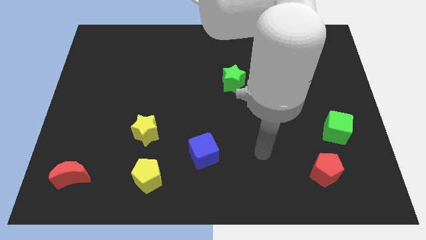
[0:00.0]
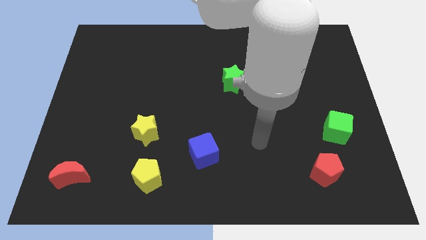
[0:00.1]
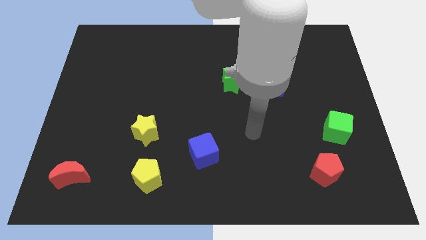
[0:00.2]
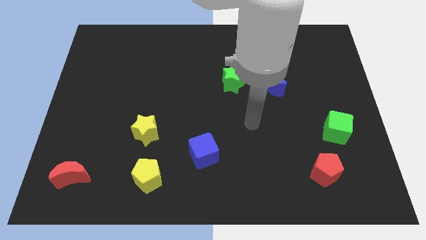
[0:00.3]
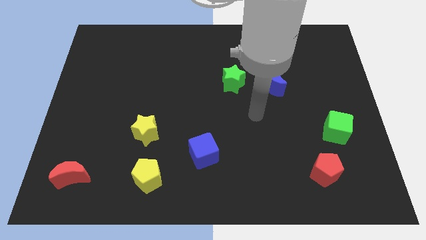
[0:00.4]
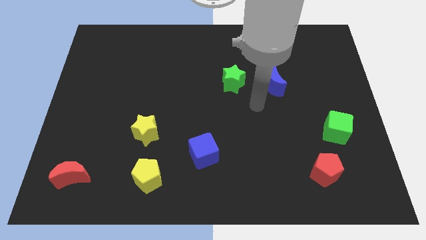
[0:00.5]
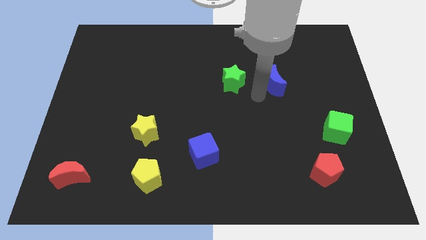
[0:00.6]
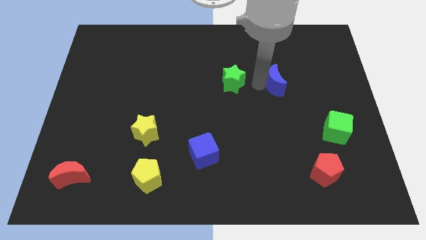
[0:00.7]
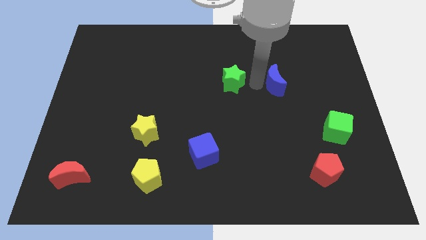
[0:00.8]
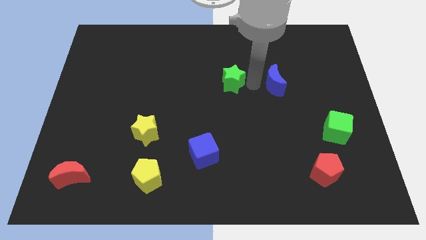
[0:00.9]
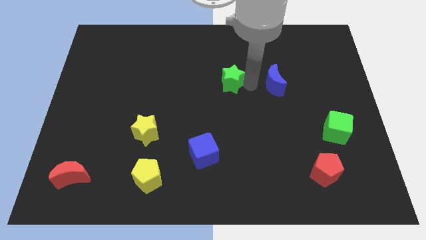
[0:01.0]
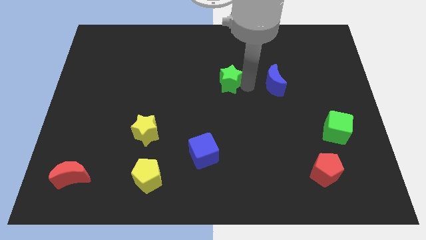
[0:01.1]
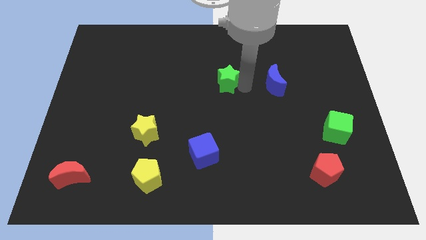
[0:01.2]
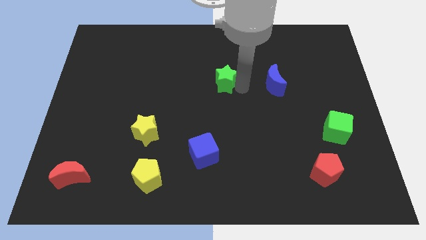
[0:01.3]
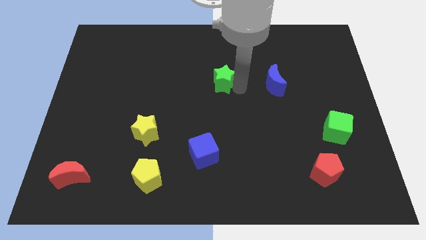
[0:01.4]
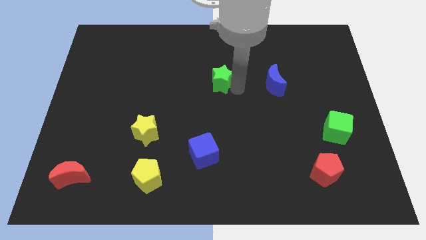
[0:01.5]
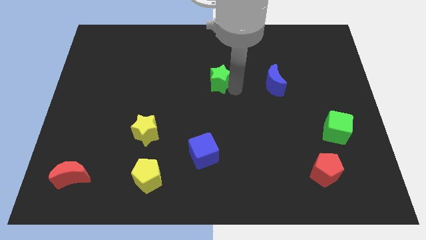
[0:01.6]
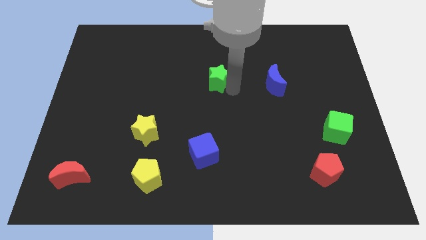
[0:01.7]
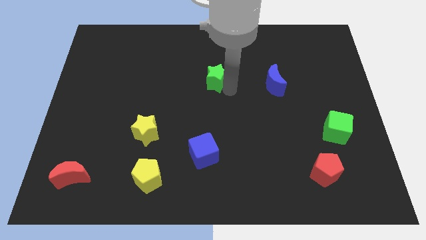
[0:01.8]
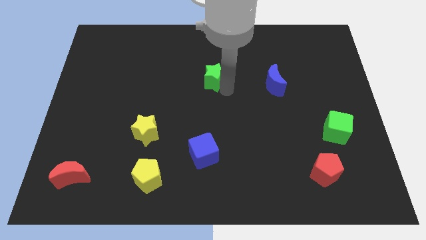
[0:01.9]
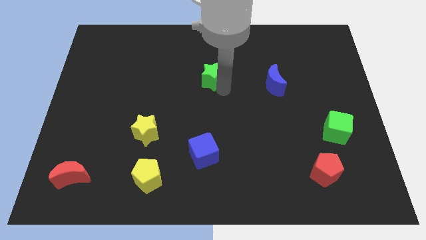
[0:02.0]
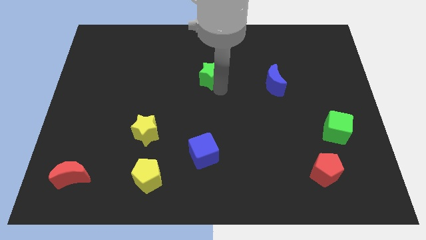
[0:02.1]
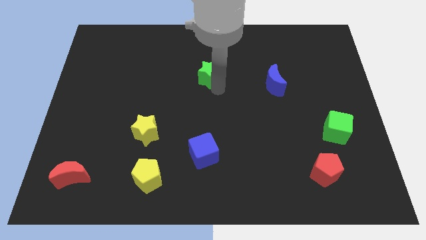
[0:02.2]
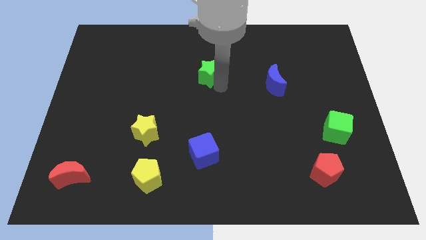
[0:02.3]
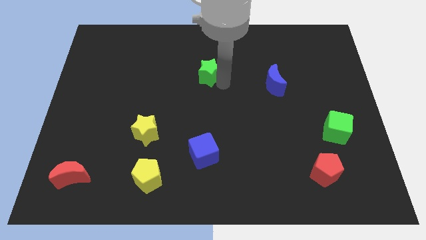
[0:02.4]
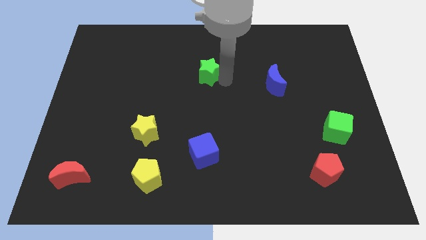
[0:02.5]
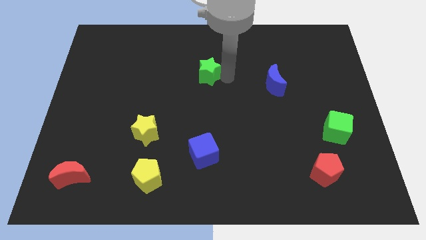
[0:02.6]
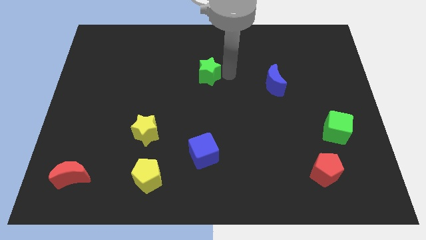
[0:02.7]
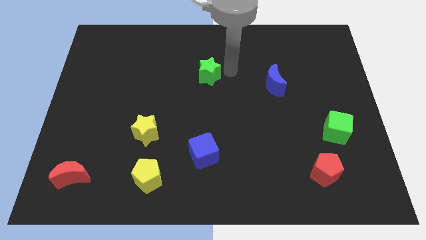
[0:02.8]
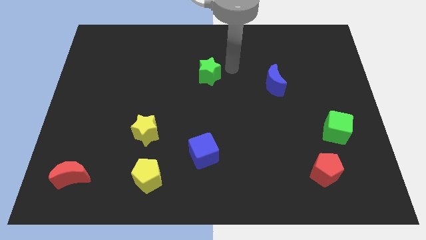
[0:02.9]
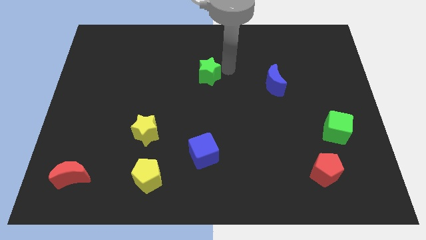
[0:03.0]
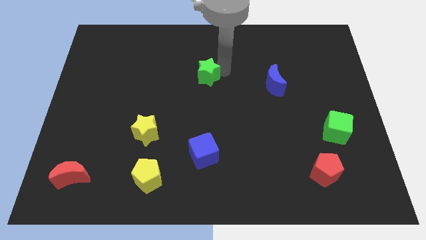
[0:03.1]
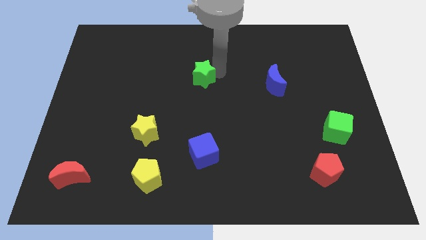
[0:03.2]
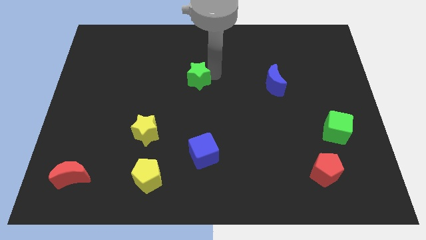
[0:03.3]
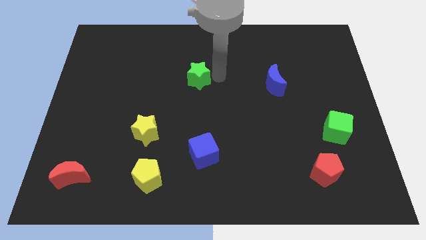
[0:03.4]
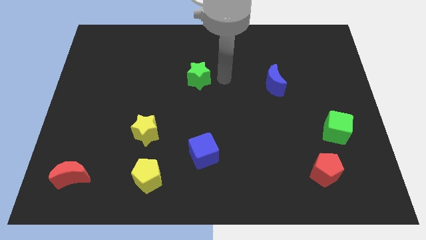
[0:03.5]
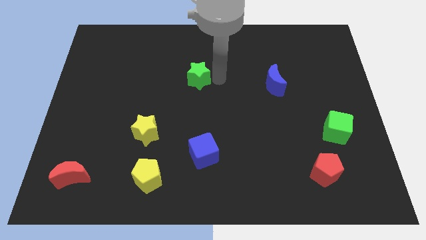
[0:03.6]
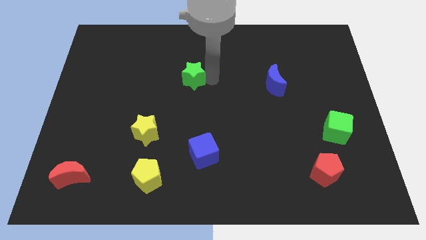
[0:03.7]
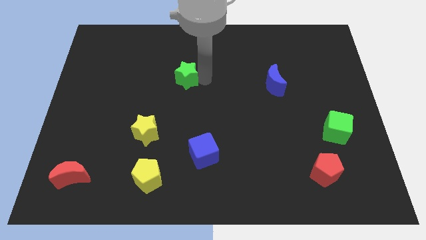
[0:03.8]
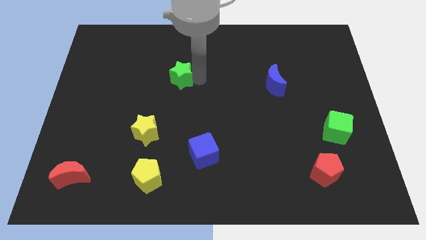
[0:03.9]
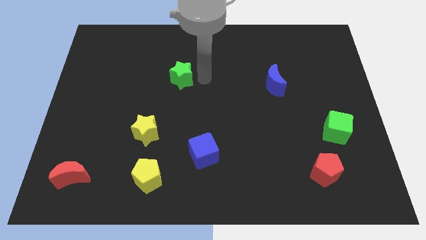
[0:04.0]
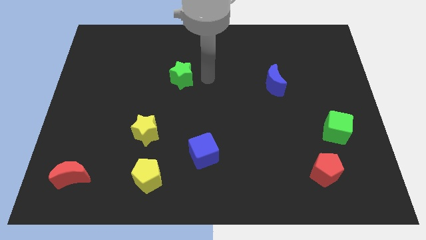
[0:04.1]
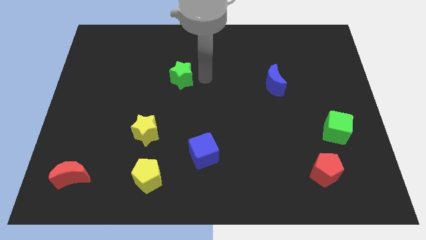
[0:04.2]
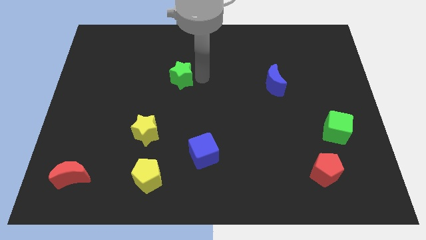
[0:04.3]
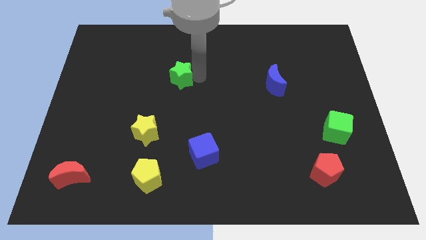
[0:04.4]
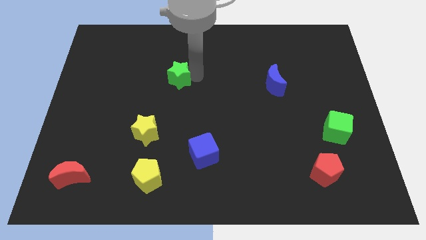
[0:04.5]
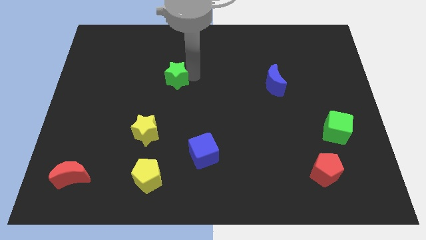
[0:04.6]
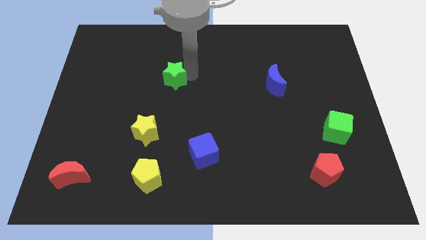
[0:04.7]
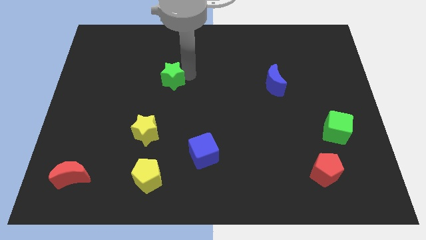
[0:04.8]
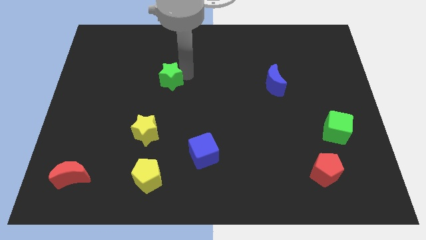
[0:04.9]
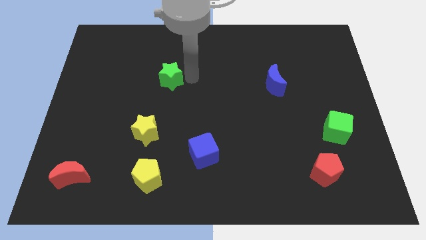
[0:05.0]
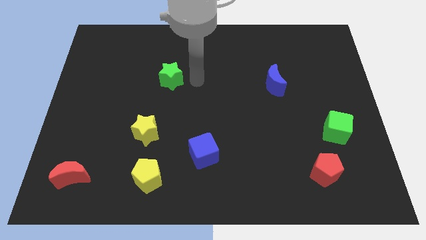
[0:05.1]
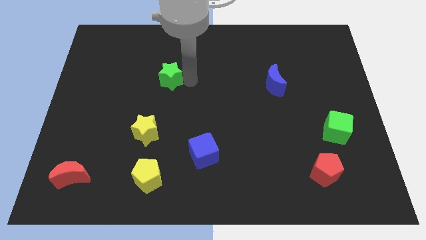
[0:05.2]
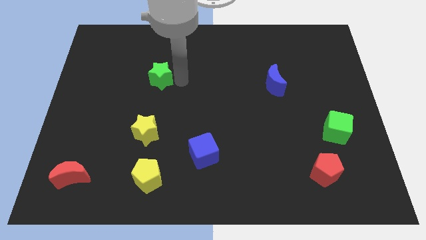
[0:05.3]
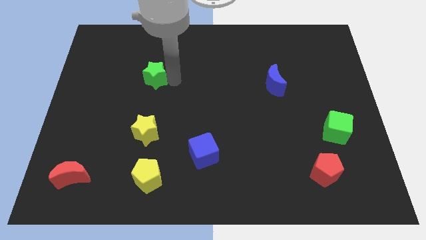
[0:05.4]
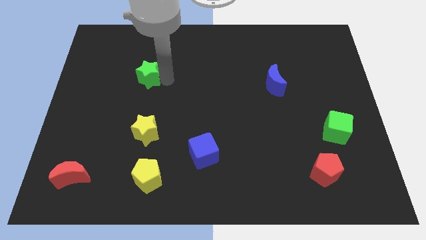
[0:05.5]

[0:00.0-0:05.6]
slide the green star left
